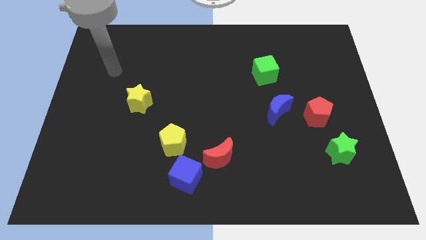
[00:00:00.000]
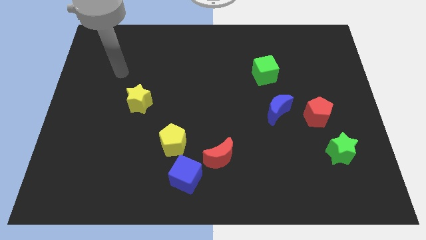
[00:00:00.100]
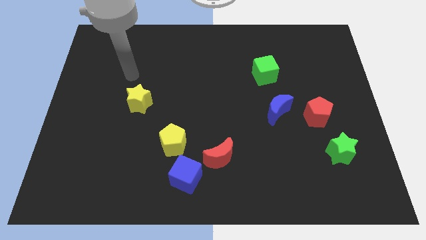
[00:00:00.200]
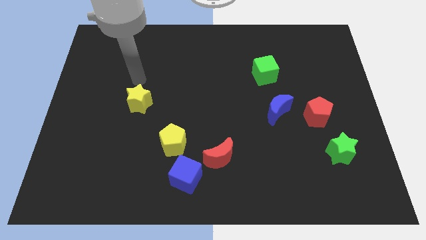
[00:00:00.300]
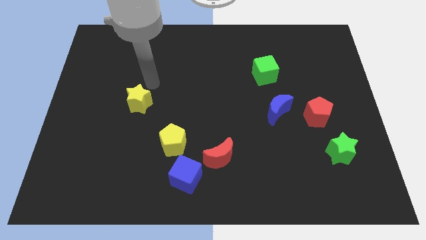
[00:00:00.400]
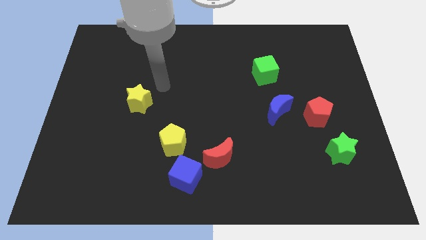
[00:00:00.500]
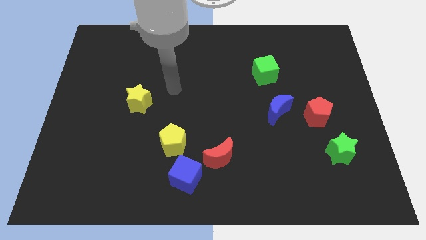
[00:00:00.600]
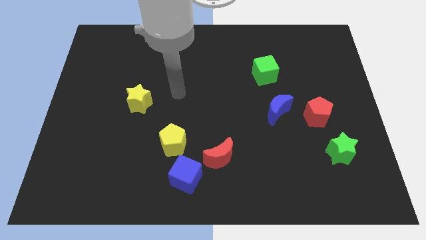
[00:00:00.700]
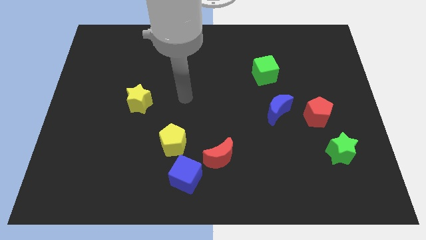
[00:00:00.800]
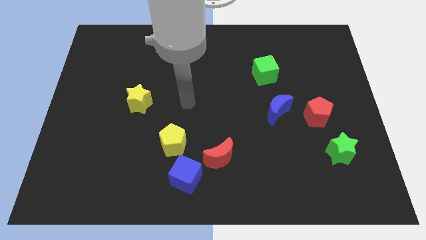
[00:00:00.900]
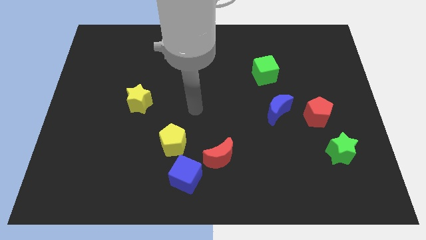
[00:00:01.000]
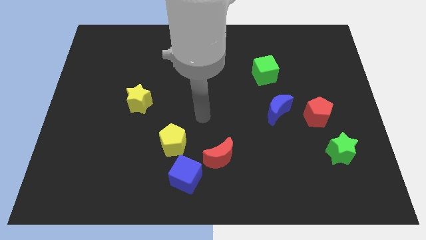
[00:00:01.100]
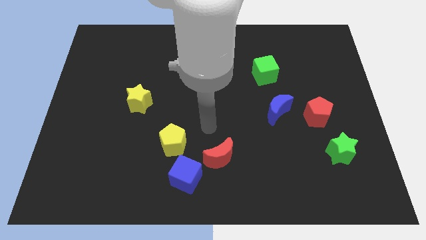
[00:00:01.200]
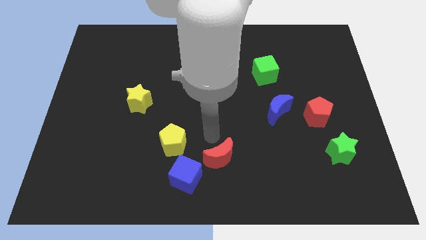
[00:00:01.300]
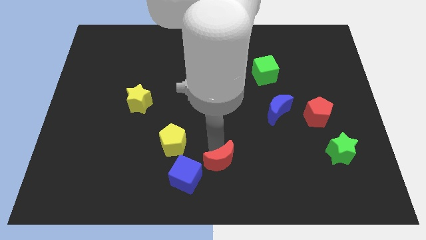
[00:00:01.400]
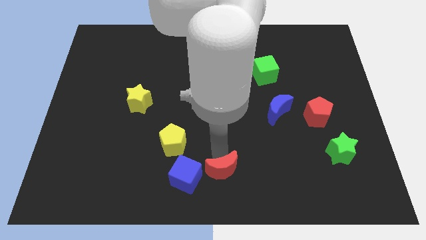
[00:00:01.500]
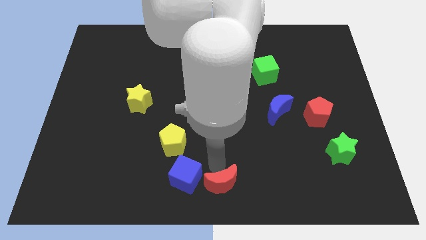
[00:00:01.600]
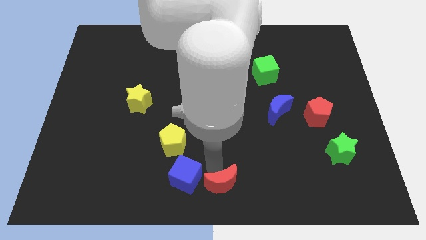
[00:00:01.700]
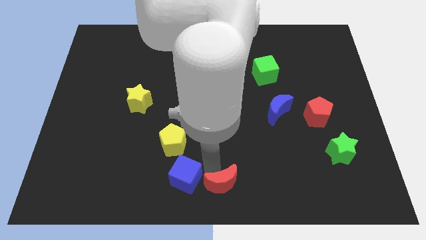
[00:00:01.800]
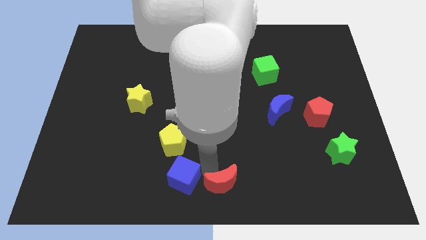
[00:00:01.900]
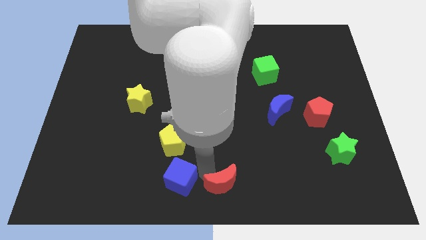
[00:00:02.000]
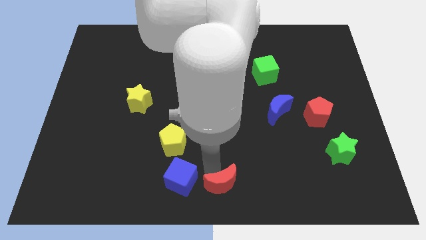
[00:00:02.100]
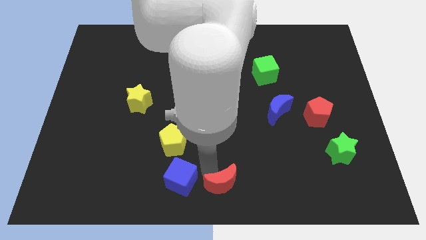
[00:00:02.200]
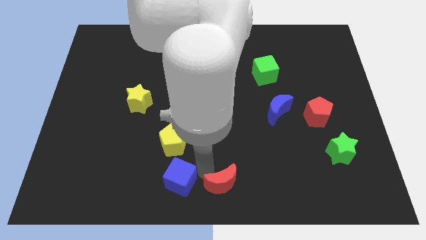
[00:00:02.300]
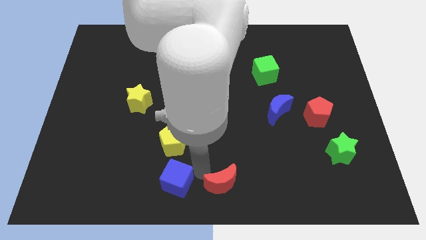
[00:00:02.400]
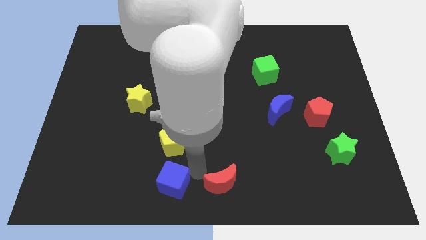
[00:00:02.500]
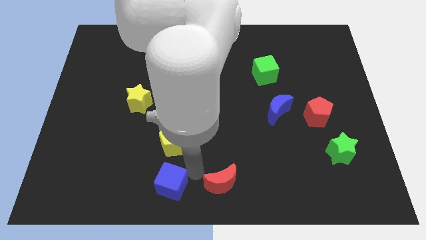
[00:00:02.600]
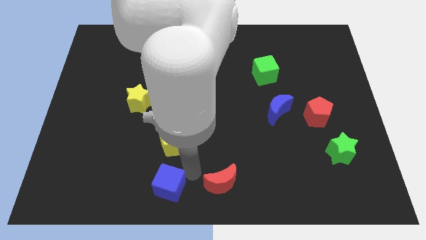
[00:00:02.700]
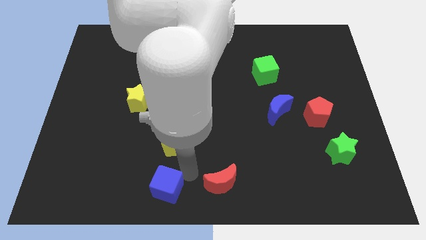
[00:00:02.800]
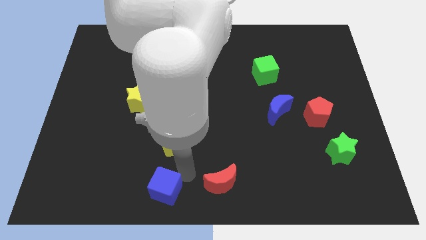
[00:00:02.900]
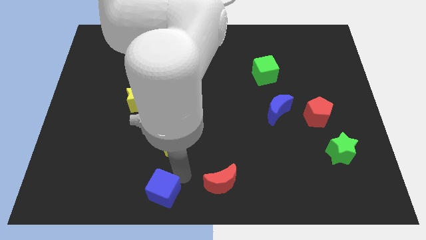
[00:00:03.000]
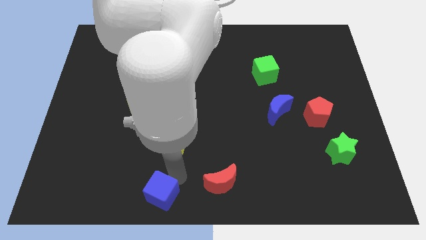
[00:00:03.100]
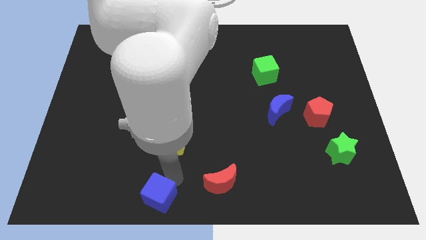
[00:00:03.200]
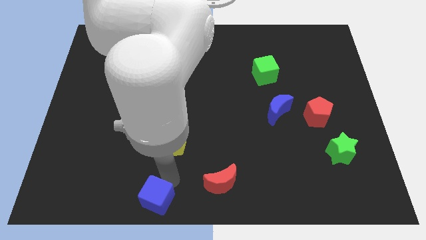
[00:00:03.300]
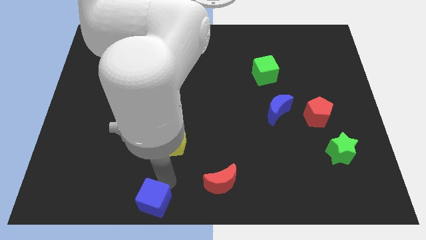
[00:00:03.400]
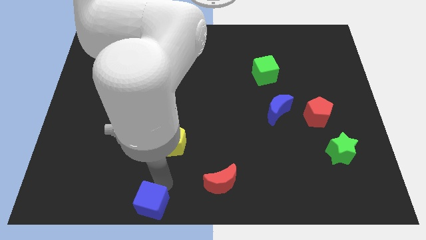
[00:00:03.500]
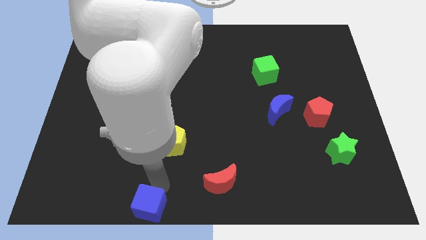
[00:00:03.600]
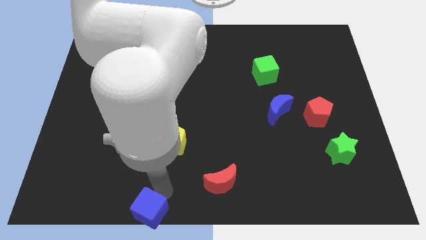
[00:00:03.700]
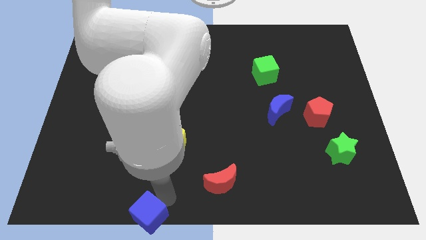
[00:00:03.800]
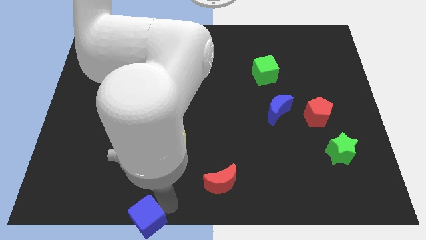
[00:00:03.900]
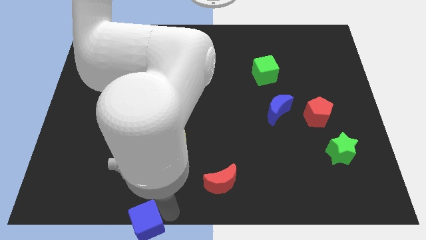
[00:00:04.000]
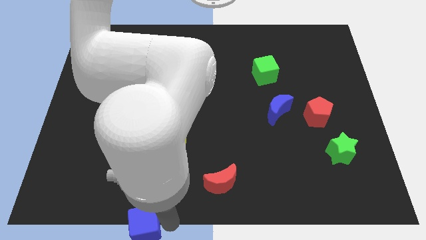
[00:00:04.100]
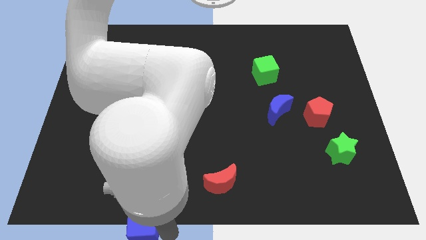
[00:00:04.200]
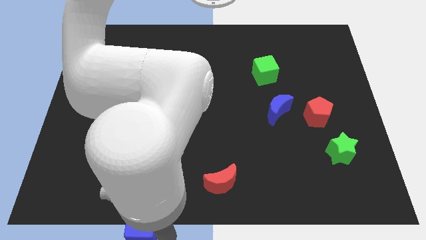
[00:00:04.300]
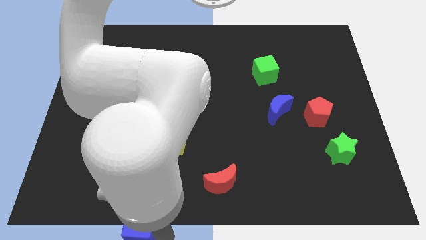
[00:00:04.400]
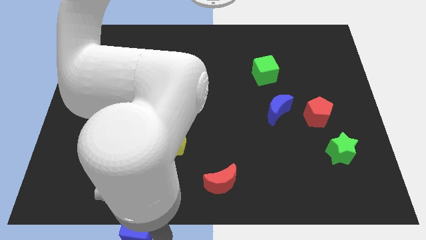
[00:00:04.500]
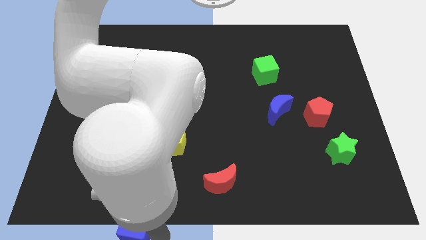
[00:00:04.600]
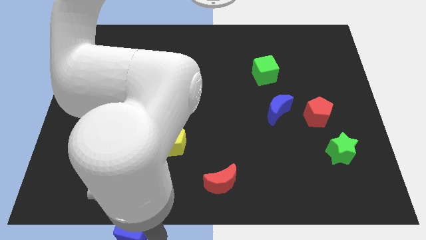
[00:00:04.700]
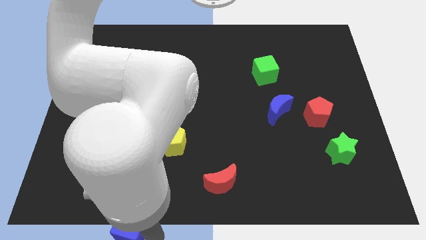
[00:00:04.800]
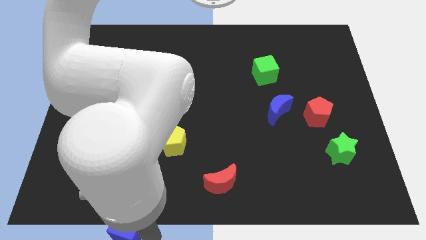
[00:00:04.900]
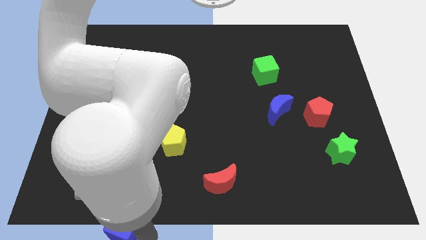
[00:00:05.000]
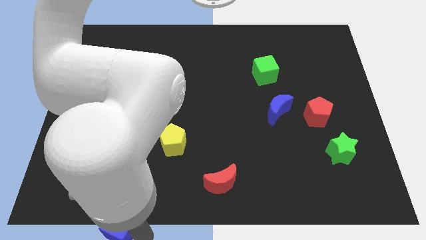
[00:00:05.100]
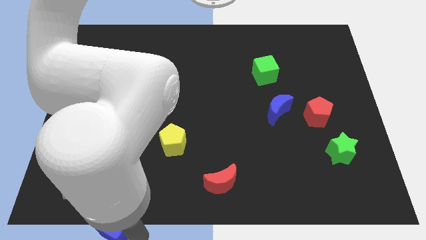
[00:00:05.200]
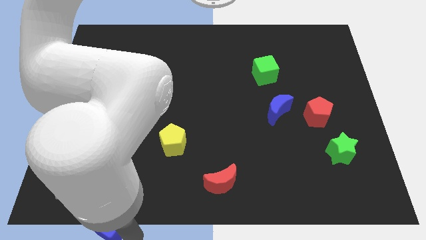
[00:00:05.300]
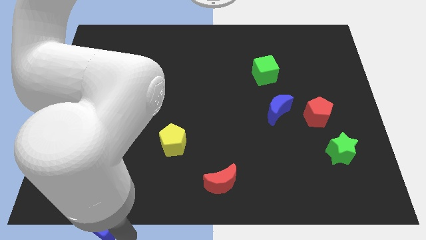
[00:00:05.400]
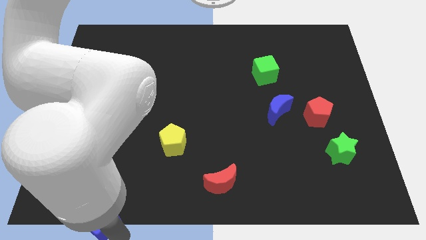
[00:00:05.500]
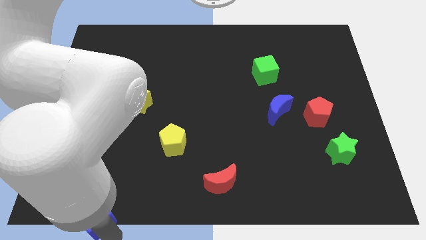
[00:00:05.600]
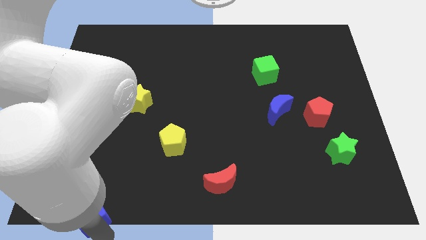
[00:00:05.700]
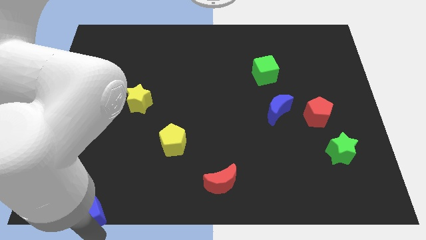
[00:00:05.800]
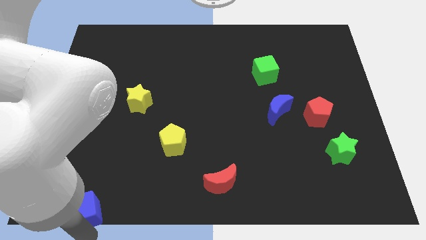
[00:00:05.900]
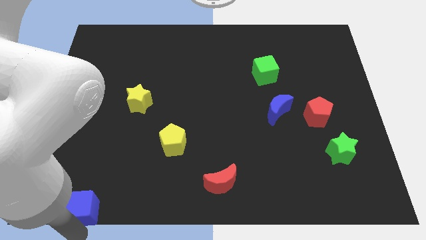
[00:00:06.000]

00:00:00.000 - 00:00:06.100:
move the blue cube to the lower left corner

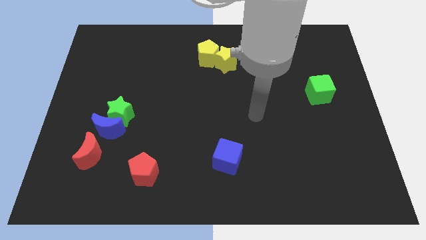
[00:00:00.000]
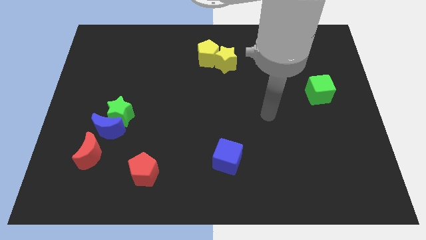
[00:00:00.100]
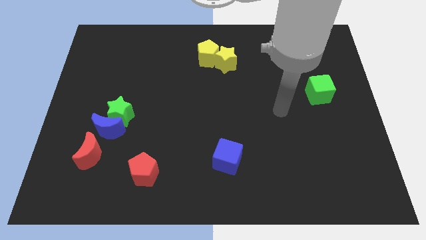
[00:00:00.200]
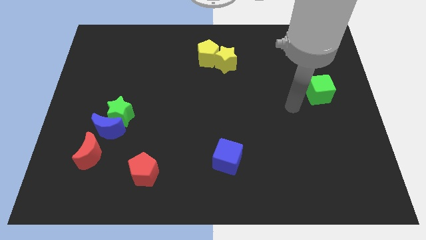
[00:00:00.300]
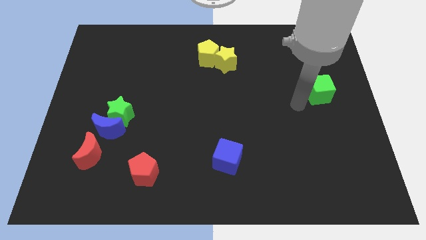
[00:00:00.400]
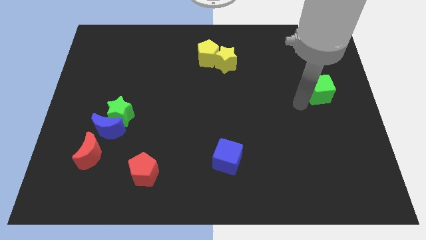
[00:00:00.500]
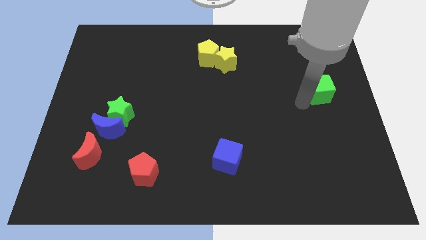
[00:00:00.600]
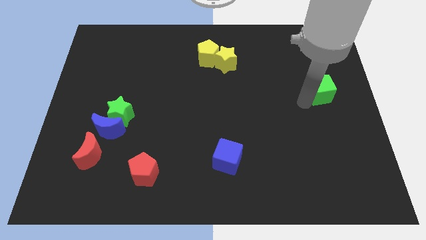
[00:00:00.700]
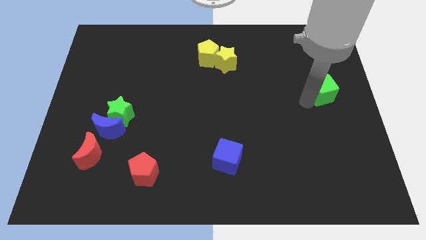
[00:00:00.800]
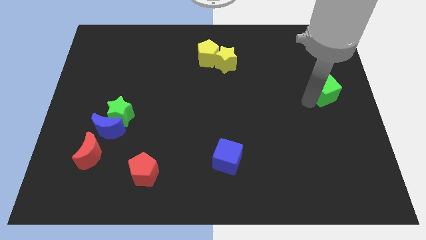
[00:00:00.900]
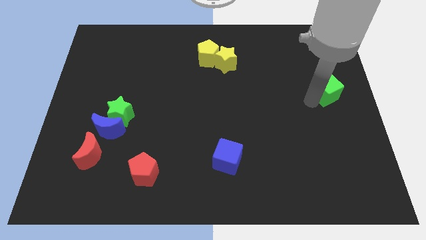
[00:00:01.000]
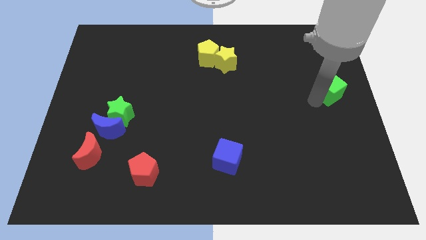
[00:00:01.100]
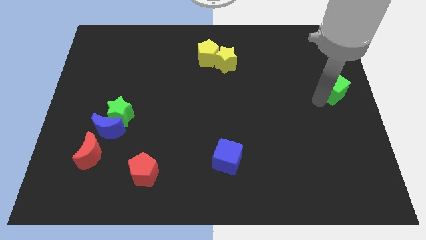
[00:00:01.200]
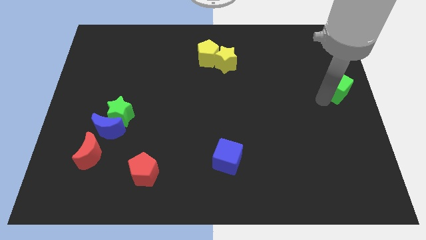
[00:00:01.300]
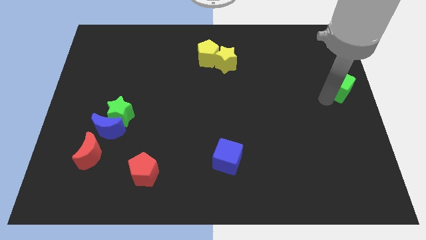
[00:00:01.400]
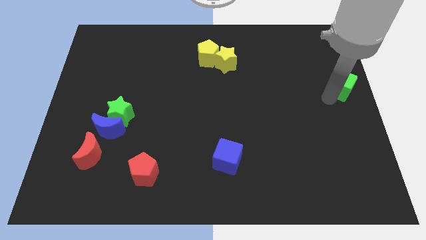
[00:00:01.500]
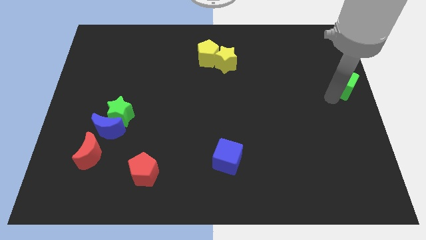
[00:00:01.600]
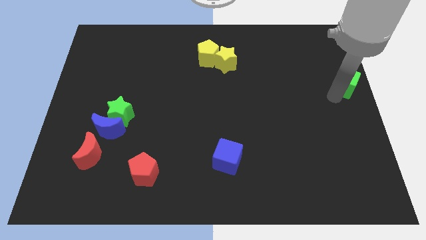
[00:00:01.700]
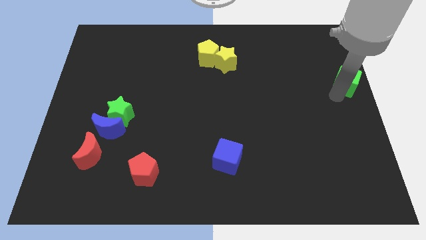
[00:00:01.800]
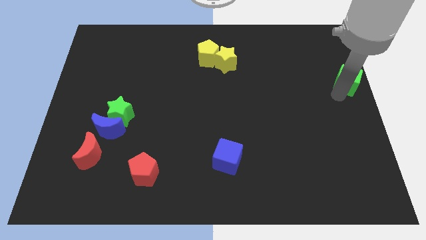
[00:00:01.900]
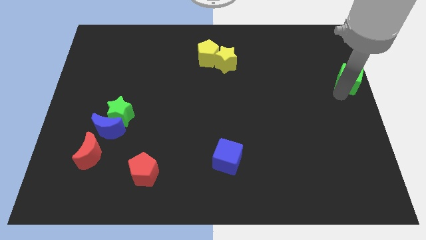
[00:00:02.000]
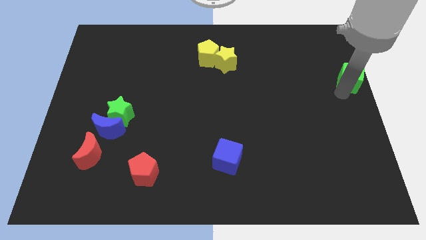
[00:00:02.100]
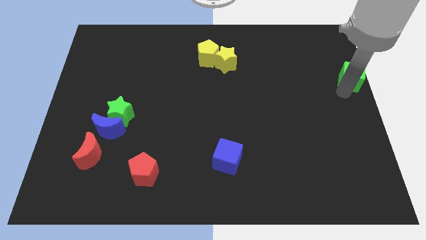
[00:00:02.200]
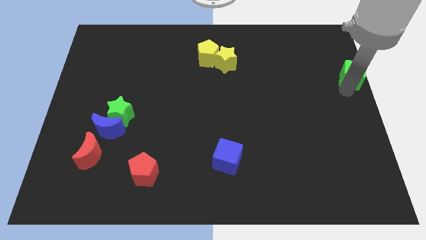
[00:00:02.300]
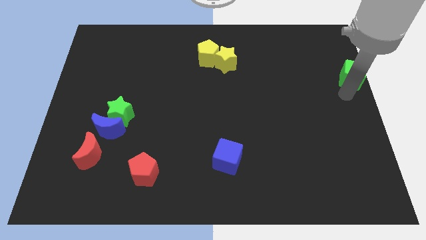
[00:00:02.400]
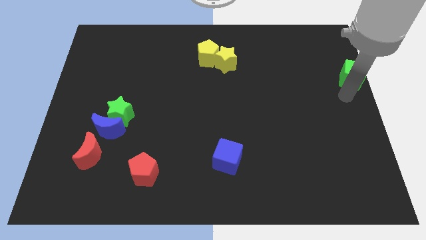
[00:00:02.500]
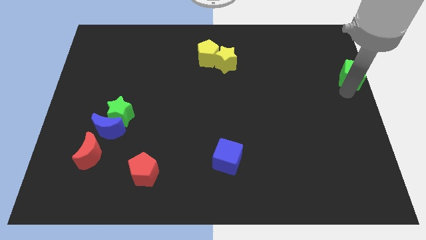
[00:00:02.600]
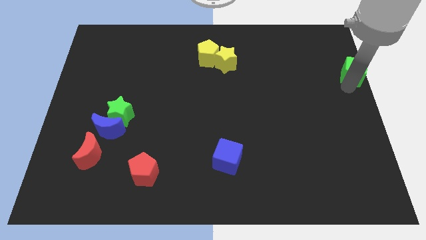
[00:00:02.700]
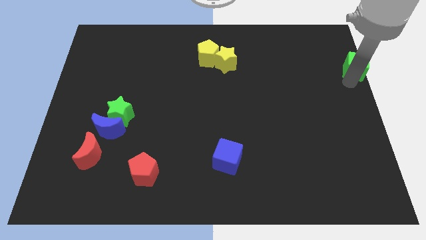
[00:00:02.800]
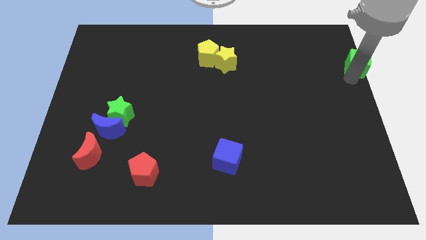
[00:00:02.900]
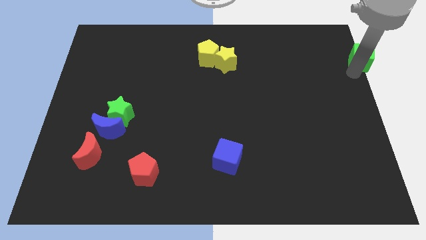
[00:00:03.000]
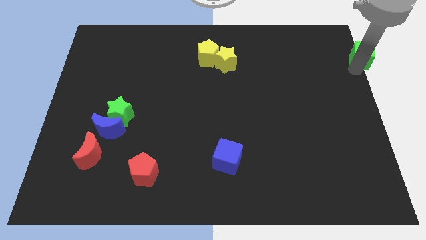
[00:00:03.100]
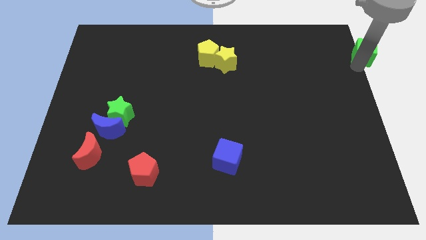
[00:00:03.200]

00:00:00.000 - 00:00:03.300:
push the green cube to the top right
